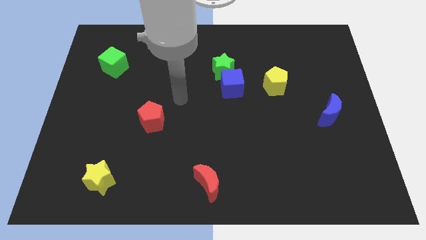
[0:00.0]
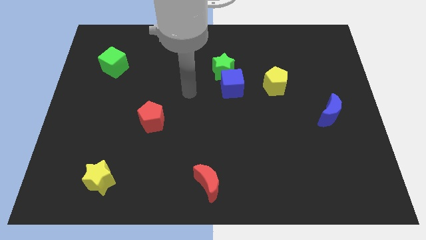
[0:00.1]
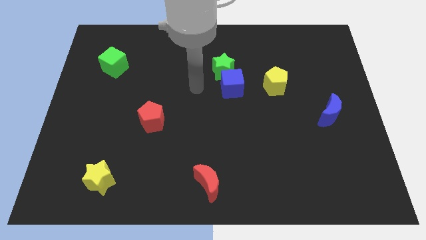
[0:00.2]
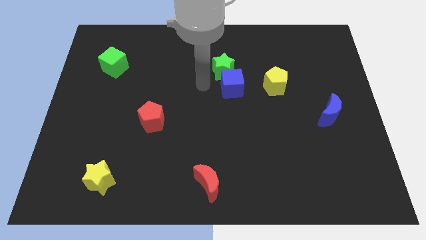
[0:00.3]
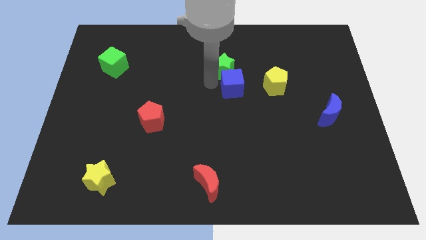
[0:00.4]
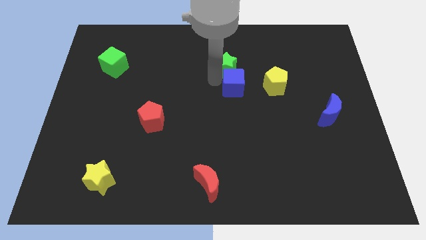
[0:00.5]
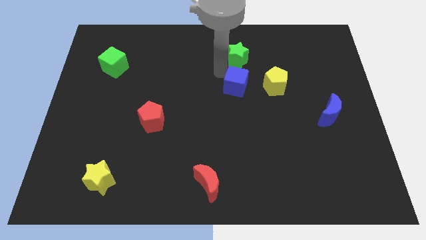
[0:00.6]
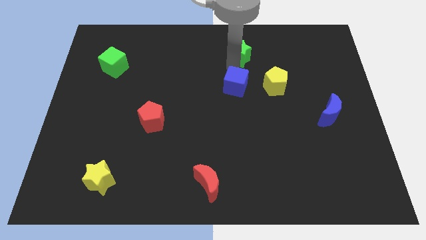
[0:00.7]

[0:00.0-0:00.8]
separate the blue cube from the green star

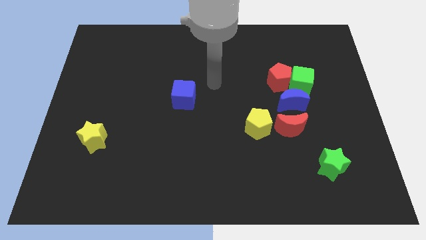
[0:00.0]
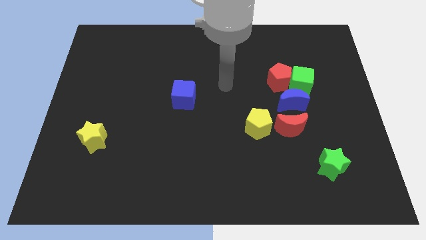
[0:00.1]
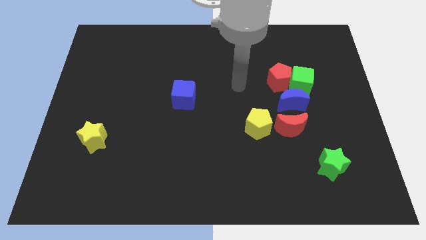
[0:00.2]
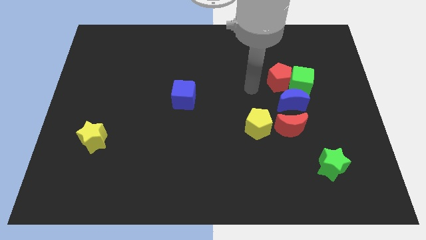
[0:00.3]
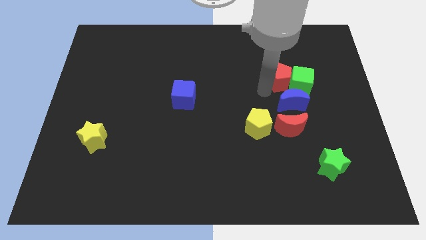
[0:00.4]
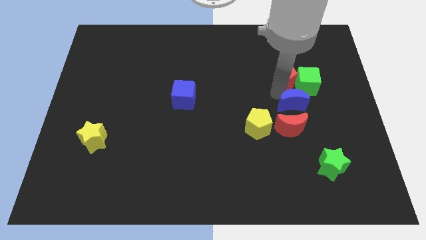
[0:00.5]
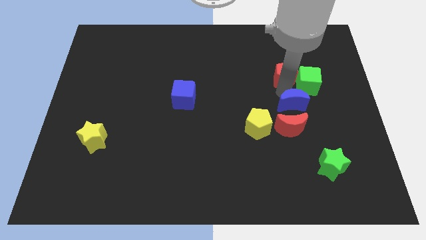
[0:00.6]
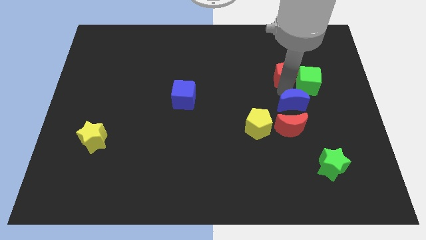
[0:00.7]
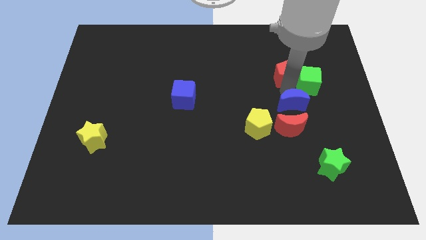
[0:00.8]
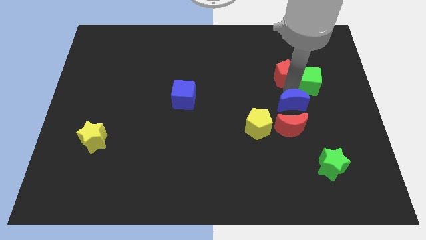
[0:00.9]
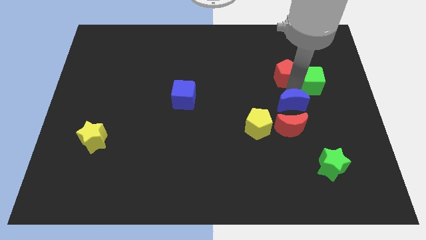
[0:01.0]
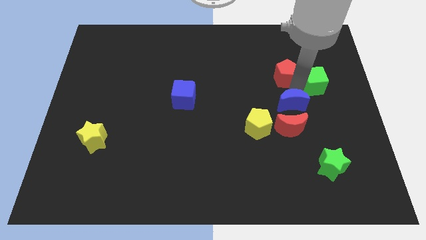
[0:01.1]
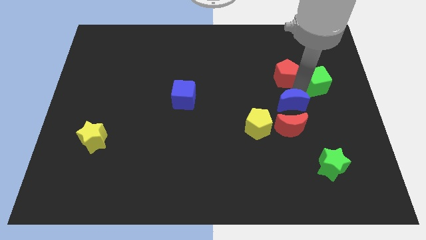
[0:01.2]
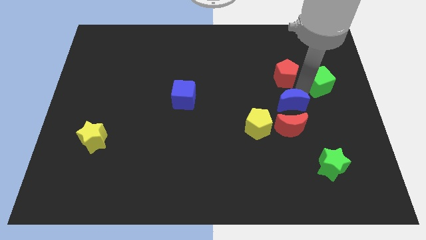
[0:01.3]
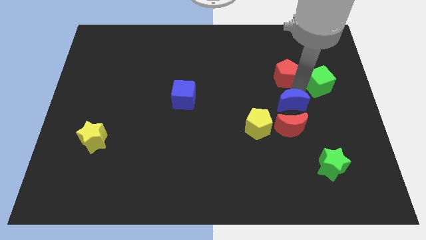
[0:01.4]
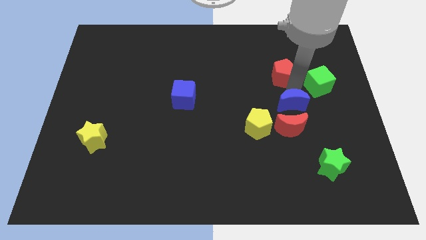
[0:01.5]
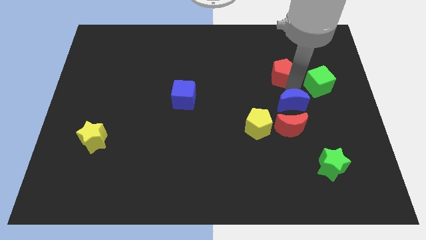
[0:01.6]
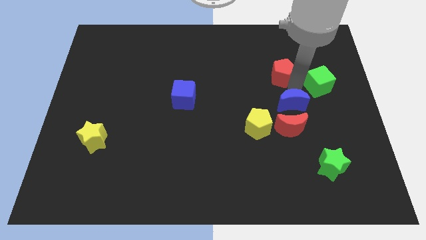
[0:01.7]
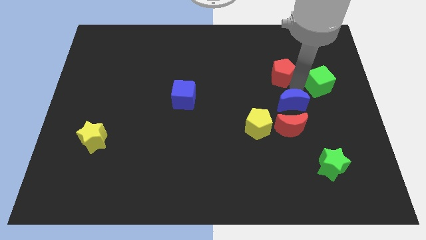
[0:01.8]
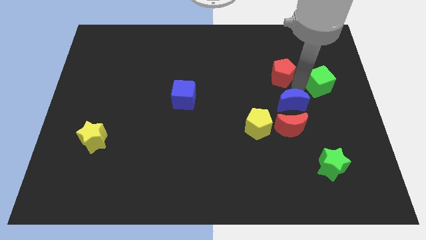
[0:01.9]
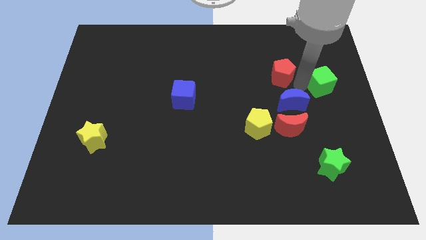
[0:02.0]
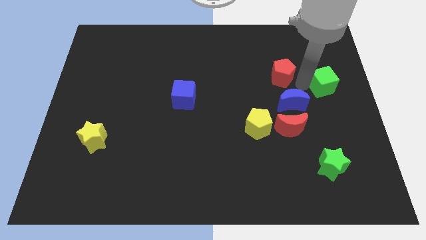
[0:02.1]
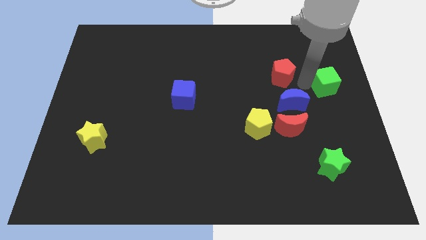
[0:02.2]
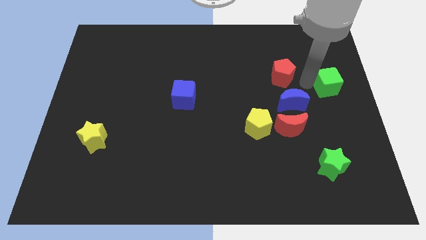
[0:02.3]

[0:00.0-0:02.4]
move the green cube away from the red pentagon and blue moon

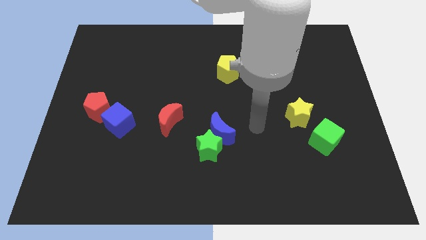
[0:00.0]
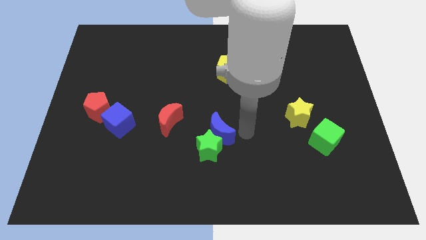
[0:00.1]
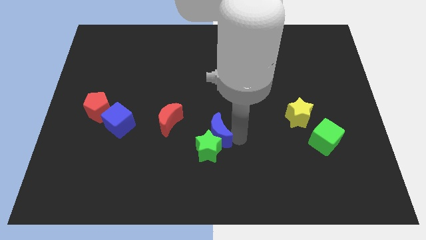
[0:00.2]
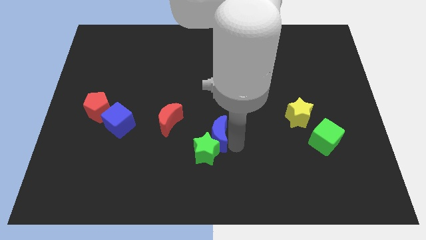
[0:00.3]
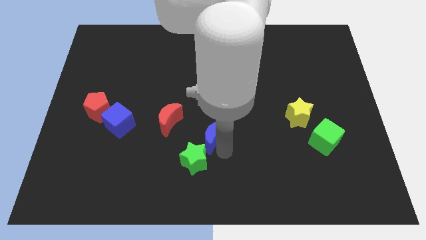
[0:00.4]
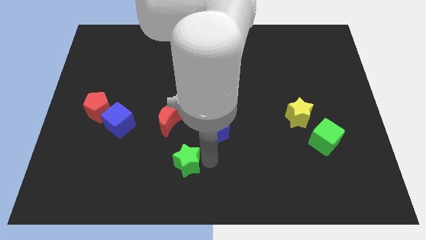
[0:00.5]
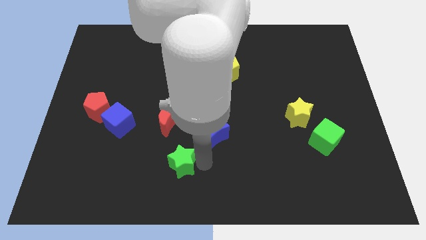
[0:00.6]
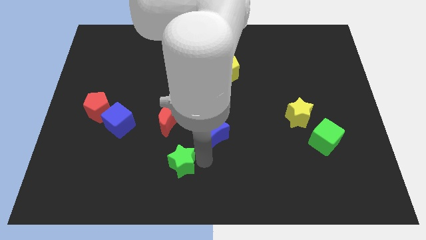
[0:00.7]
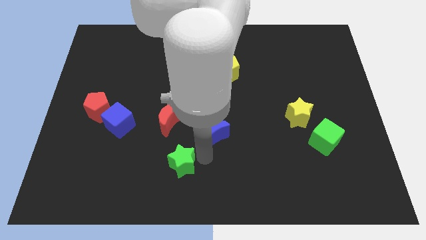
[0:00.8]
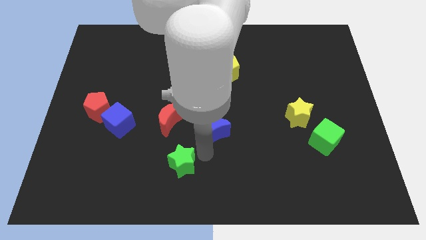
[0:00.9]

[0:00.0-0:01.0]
move the blue moon away from the green star

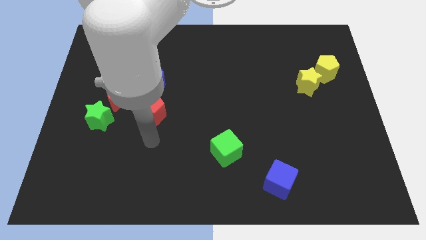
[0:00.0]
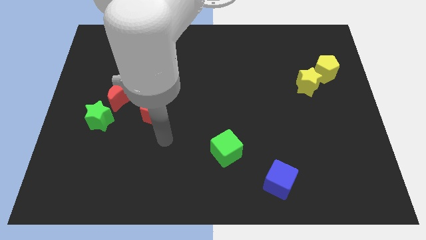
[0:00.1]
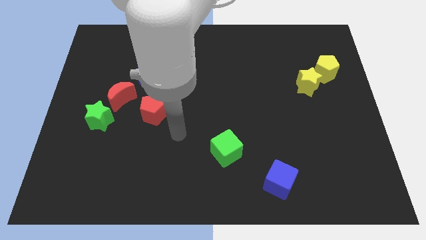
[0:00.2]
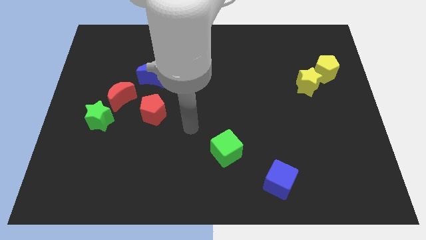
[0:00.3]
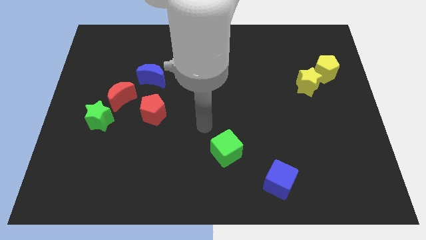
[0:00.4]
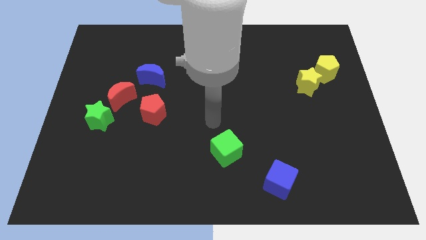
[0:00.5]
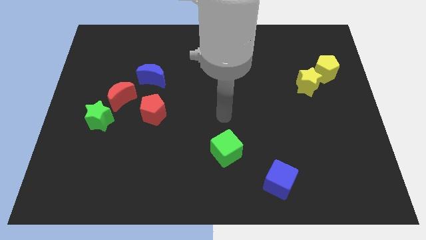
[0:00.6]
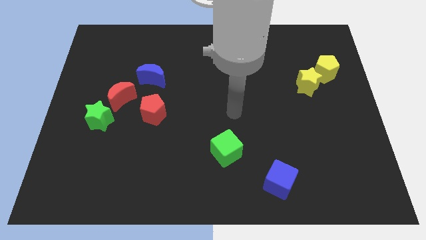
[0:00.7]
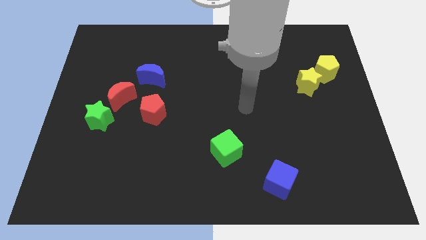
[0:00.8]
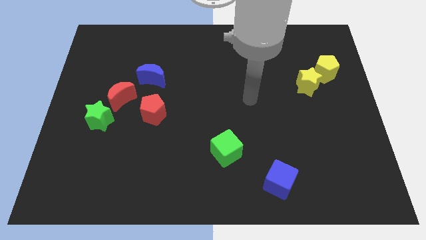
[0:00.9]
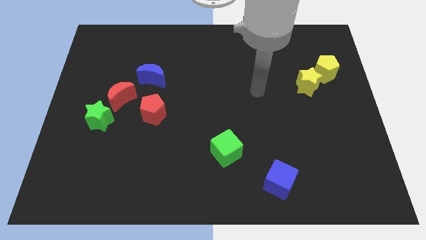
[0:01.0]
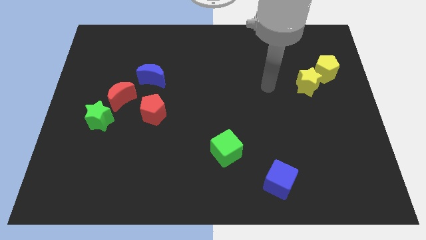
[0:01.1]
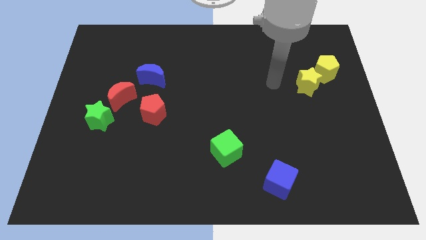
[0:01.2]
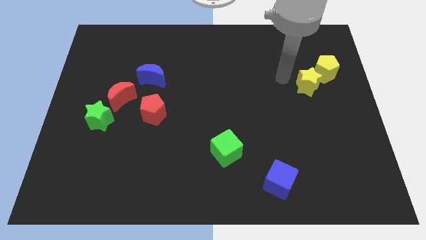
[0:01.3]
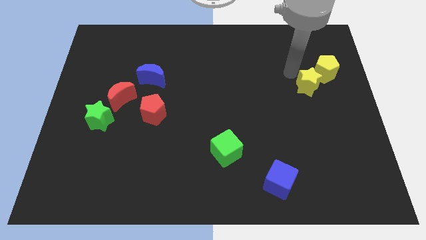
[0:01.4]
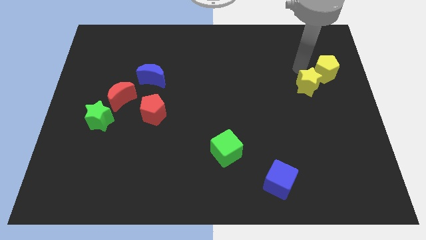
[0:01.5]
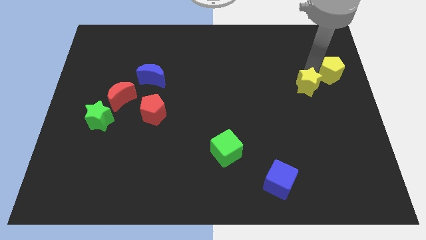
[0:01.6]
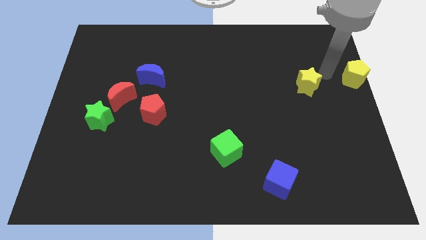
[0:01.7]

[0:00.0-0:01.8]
move the yellow star away from the yellow pentagon

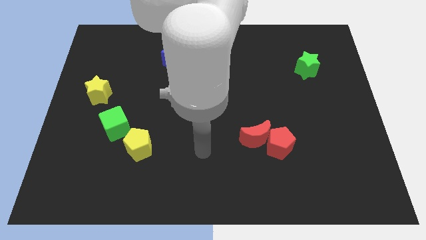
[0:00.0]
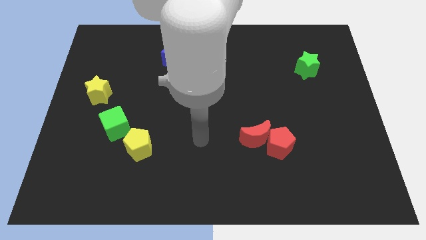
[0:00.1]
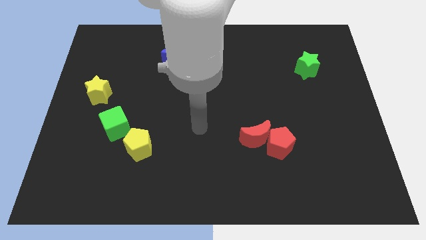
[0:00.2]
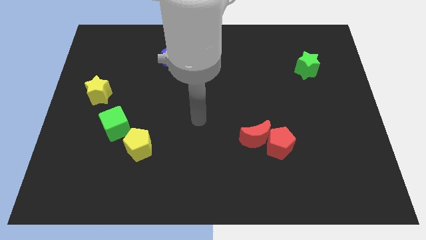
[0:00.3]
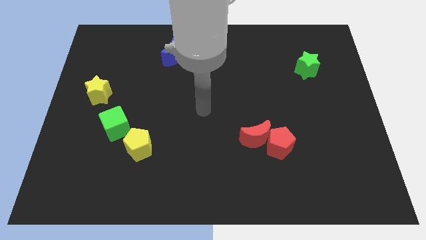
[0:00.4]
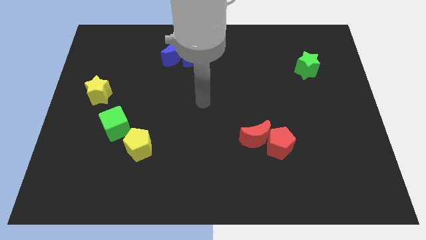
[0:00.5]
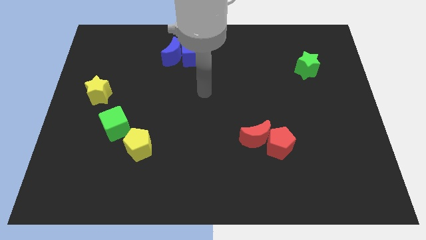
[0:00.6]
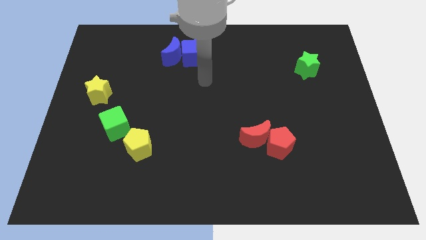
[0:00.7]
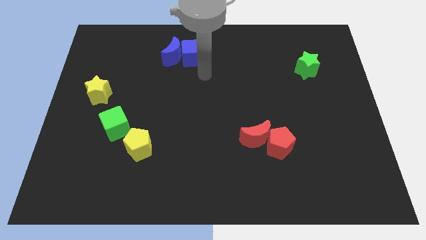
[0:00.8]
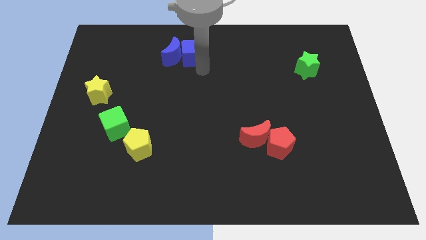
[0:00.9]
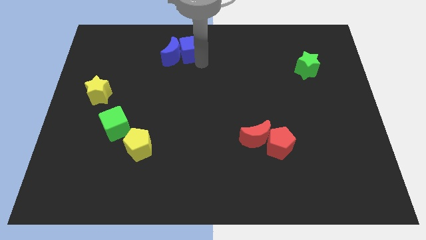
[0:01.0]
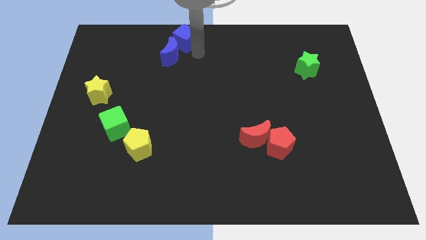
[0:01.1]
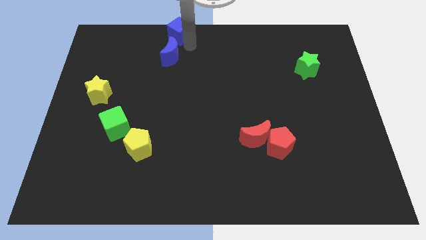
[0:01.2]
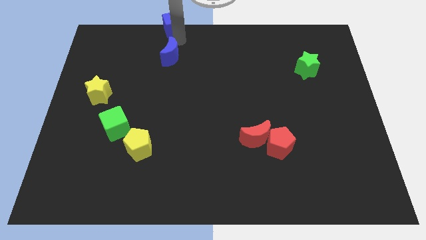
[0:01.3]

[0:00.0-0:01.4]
move the blue moon away from the blue cube

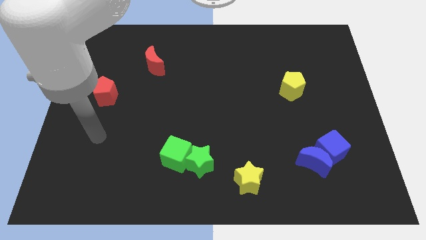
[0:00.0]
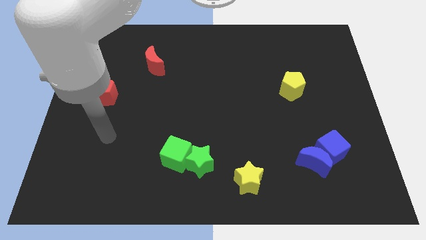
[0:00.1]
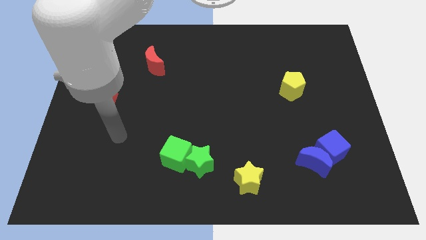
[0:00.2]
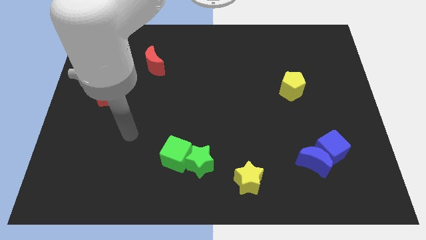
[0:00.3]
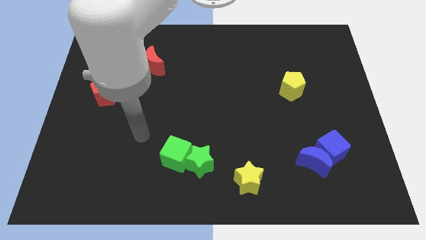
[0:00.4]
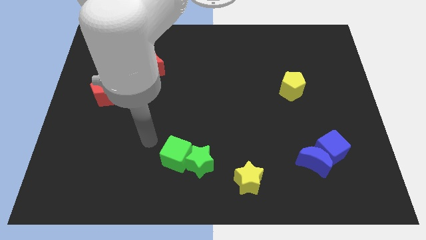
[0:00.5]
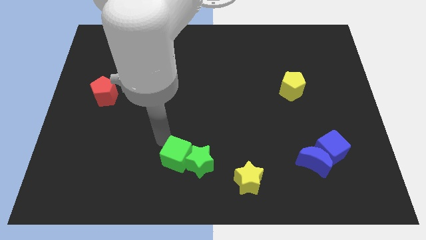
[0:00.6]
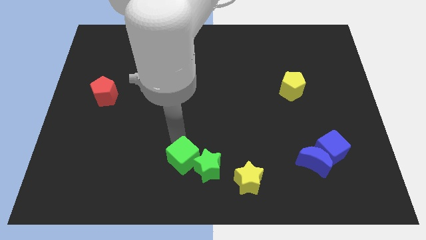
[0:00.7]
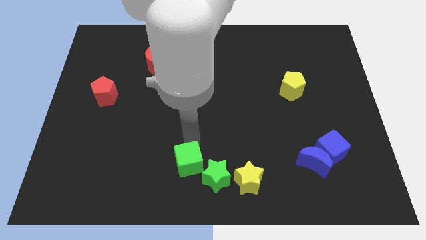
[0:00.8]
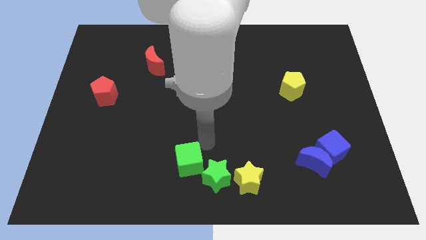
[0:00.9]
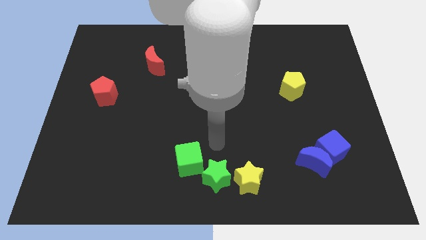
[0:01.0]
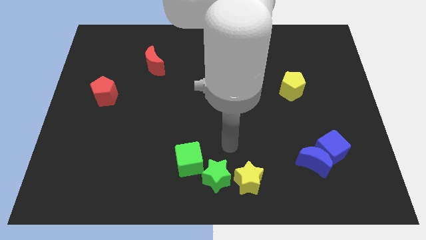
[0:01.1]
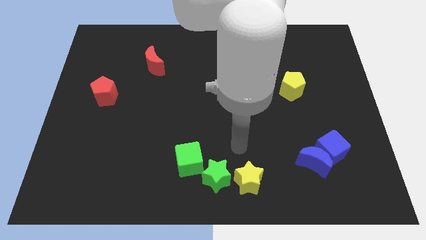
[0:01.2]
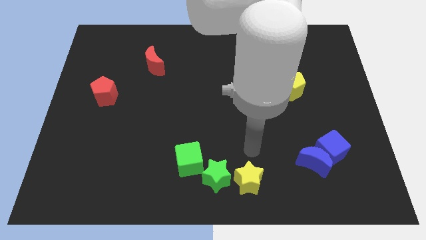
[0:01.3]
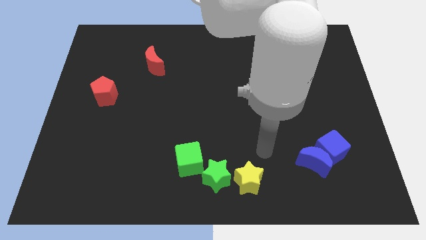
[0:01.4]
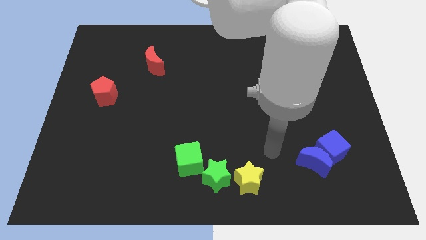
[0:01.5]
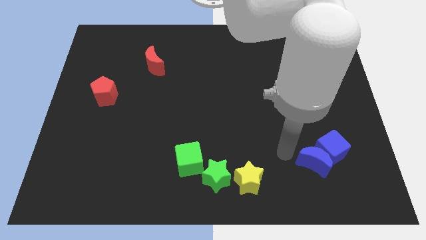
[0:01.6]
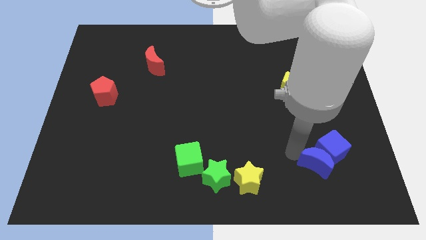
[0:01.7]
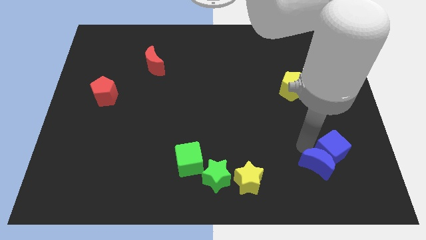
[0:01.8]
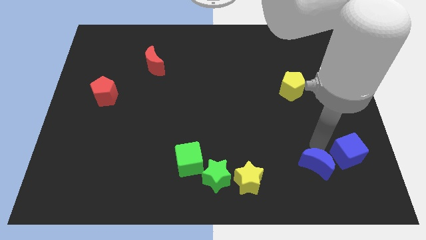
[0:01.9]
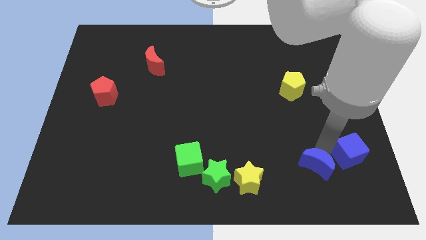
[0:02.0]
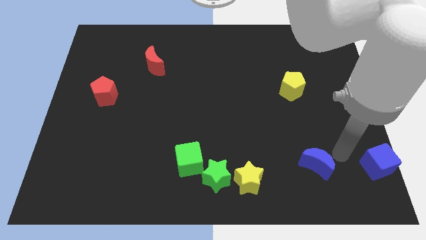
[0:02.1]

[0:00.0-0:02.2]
pull the blue moon apart from the blue cube
